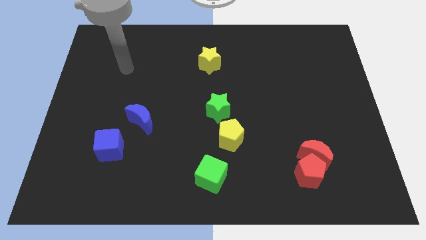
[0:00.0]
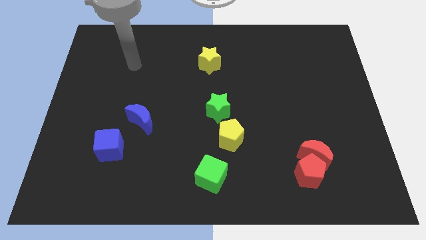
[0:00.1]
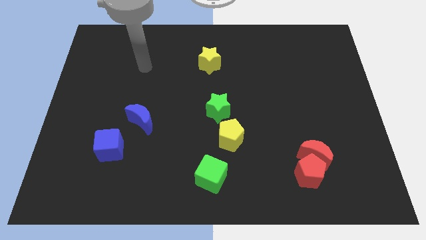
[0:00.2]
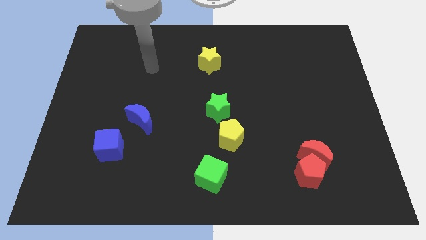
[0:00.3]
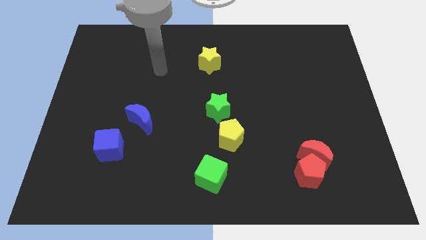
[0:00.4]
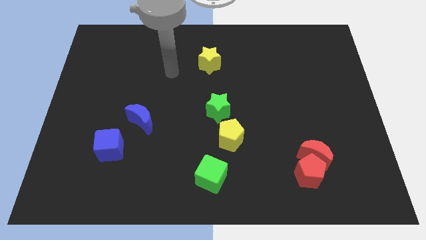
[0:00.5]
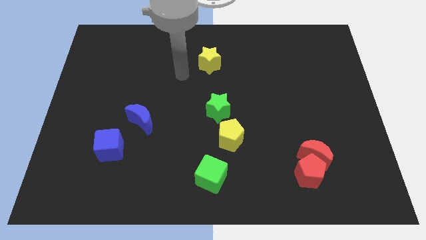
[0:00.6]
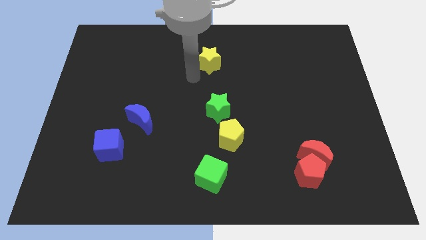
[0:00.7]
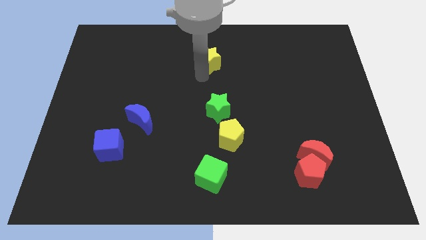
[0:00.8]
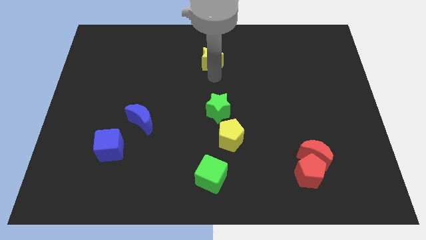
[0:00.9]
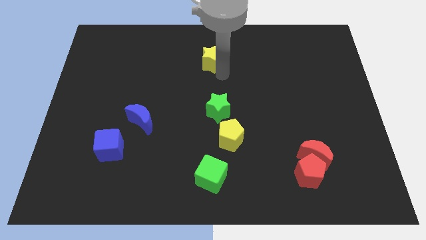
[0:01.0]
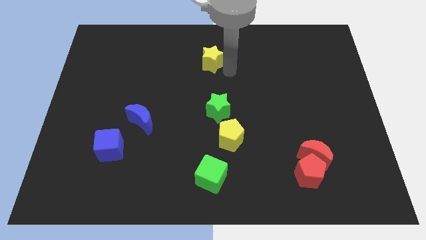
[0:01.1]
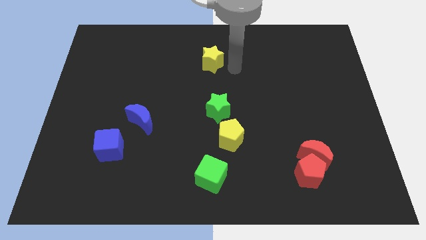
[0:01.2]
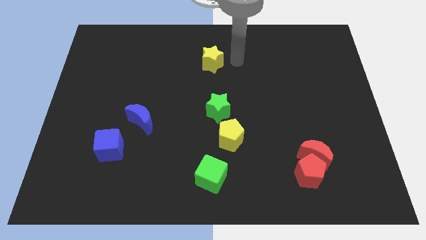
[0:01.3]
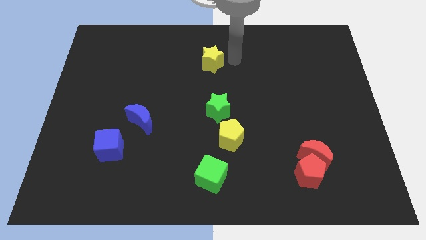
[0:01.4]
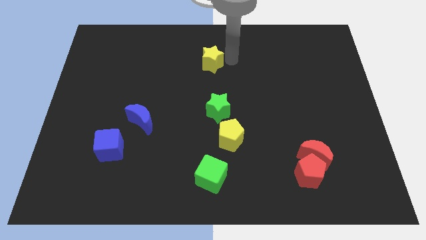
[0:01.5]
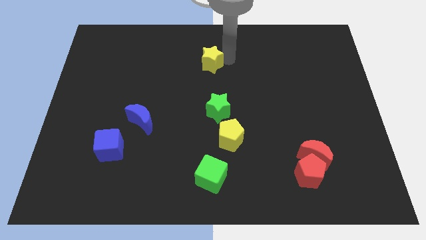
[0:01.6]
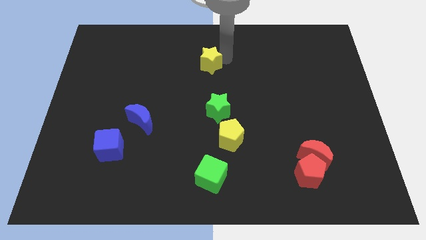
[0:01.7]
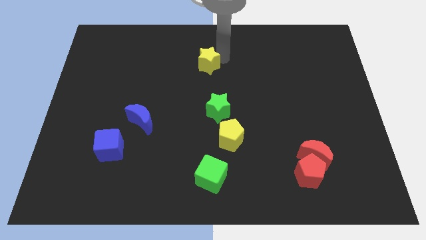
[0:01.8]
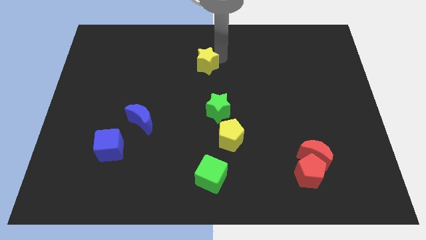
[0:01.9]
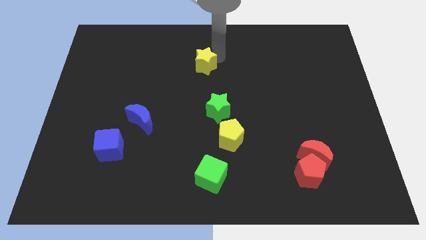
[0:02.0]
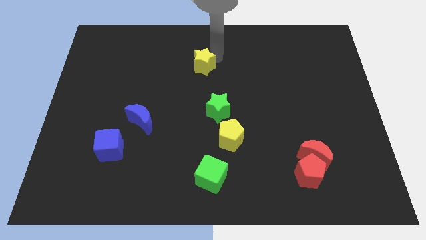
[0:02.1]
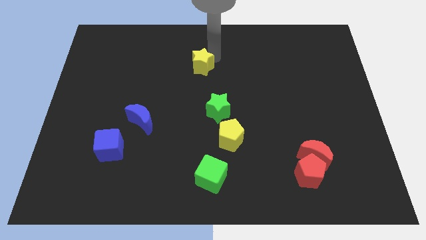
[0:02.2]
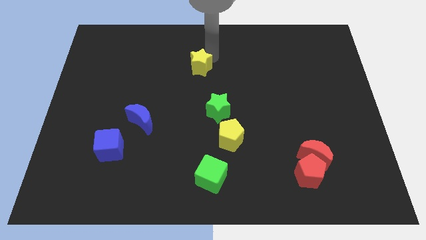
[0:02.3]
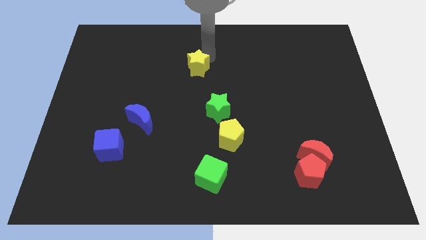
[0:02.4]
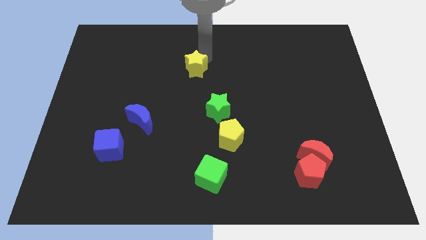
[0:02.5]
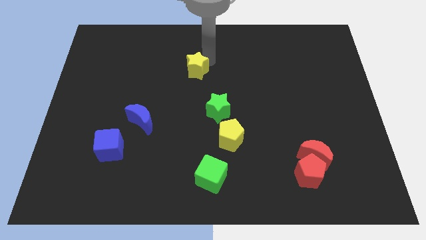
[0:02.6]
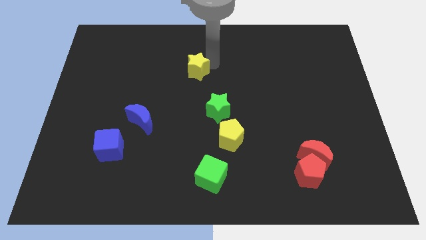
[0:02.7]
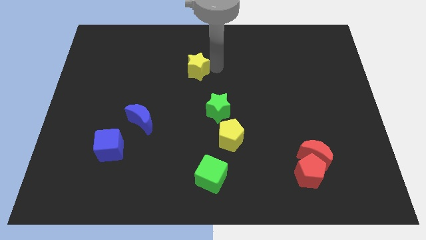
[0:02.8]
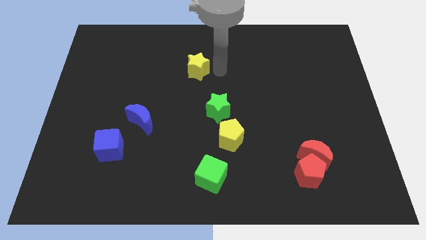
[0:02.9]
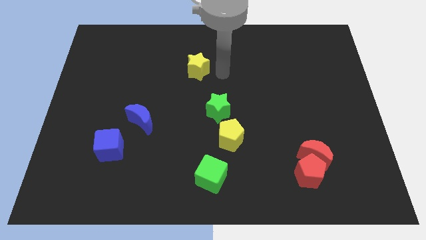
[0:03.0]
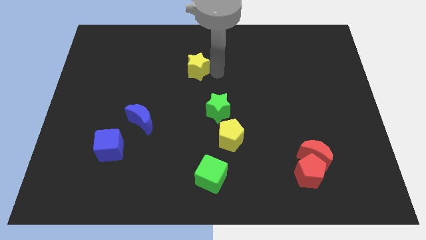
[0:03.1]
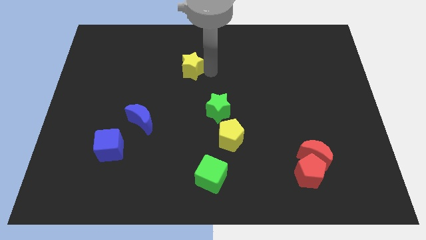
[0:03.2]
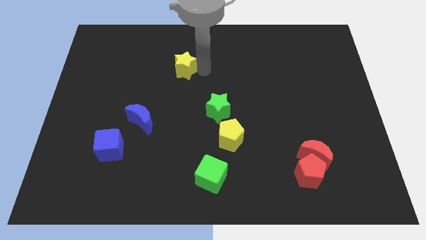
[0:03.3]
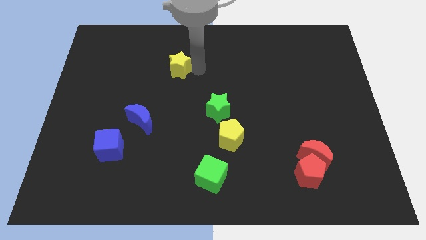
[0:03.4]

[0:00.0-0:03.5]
slightly slide the yellow star left

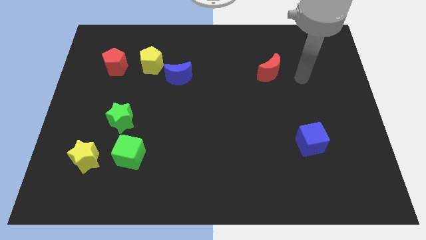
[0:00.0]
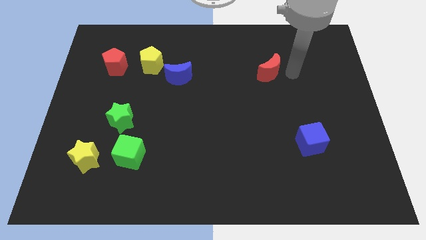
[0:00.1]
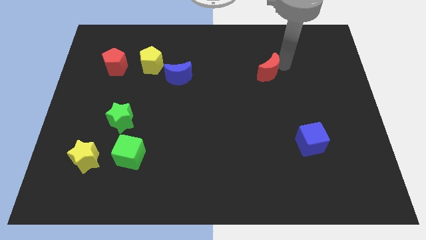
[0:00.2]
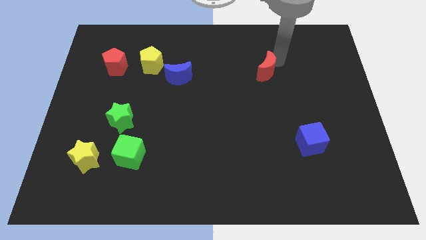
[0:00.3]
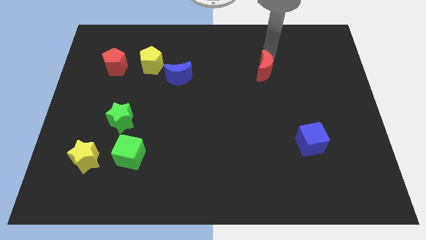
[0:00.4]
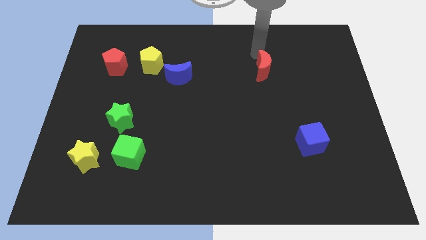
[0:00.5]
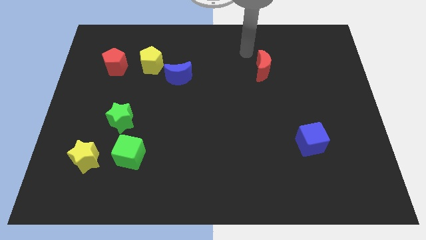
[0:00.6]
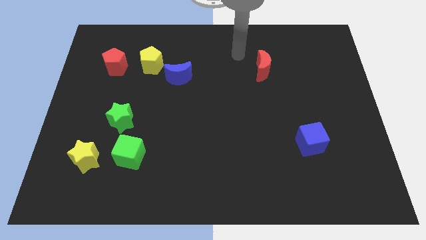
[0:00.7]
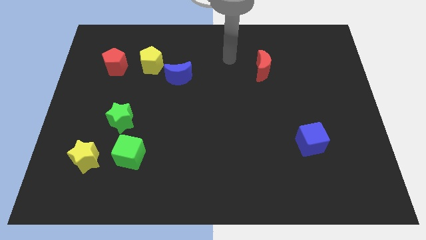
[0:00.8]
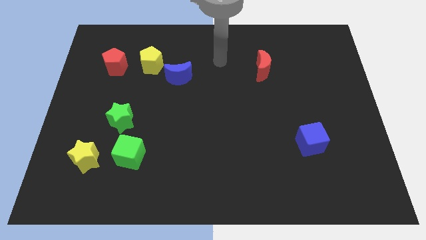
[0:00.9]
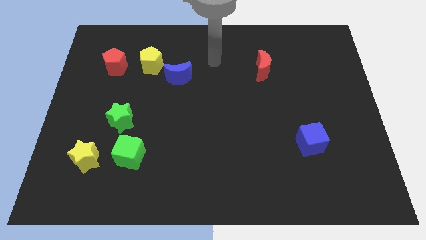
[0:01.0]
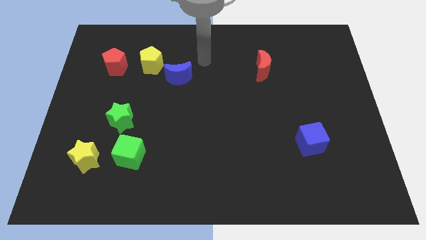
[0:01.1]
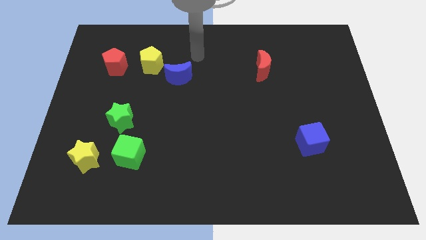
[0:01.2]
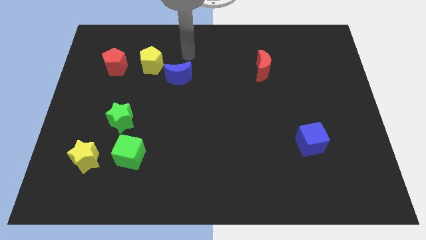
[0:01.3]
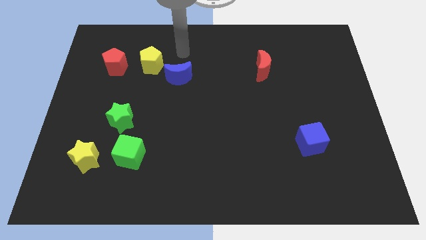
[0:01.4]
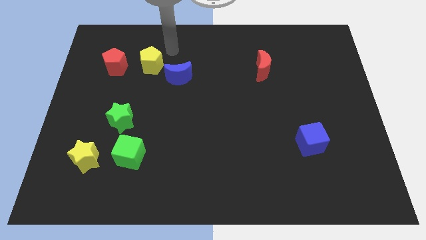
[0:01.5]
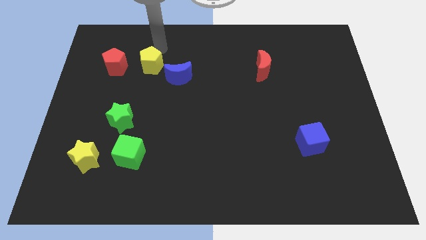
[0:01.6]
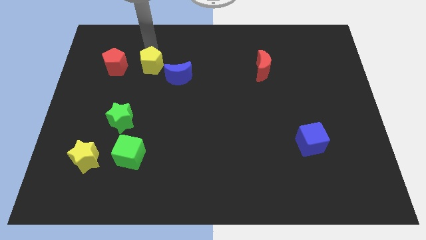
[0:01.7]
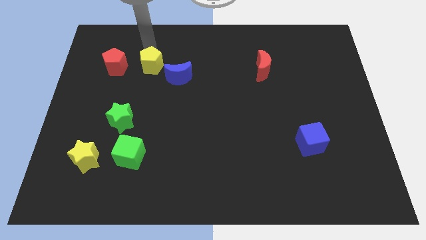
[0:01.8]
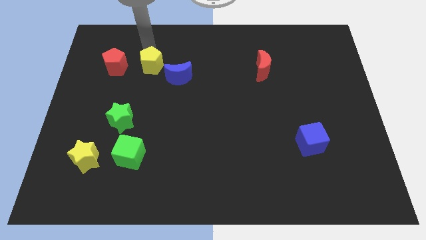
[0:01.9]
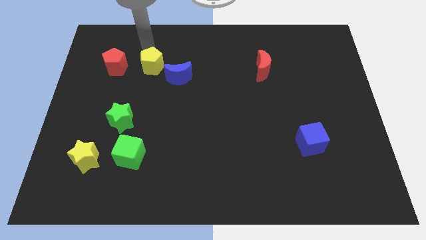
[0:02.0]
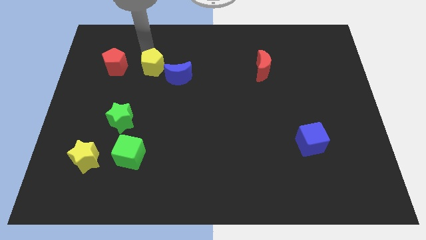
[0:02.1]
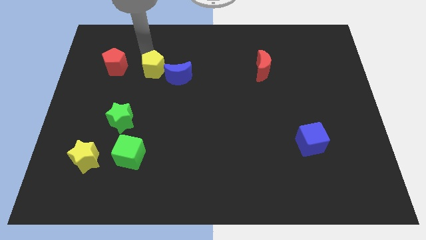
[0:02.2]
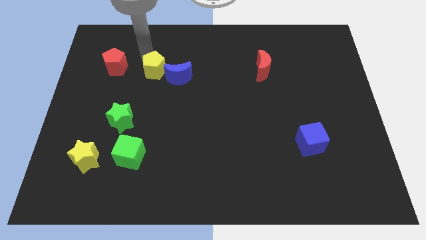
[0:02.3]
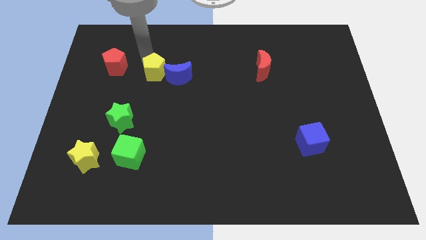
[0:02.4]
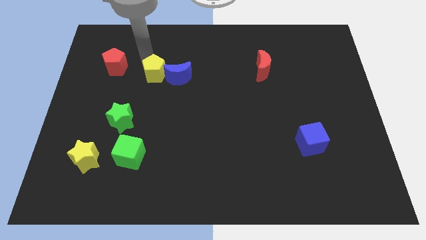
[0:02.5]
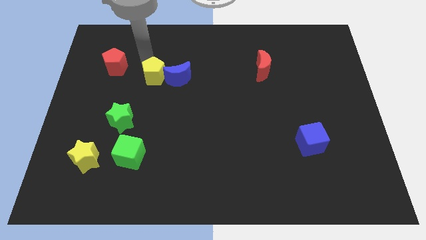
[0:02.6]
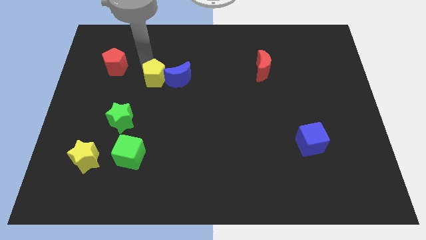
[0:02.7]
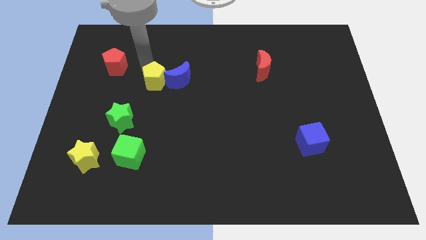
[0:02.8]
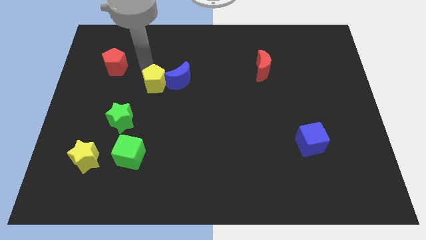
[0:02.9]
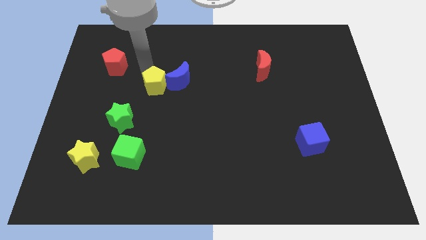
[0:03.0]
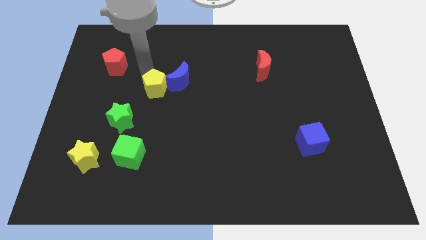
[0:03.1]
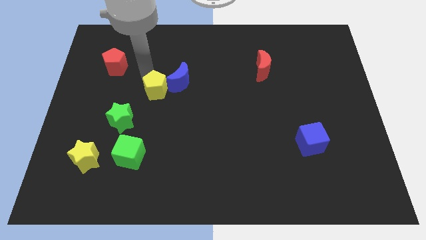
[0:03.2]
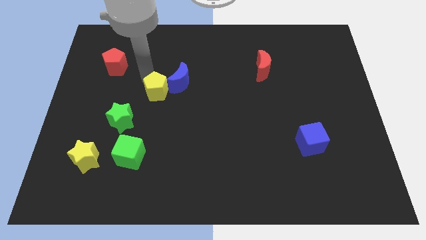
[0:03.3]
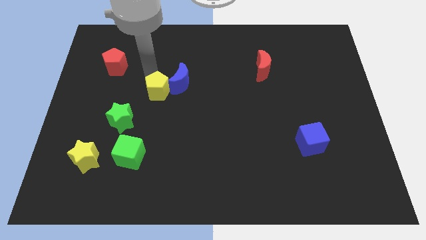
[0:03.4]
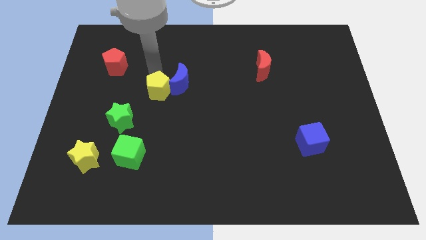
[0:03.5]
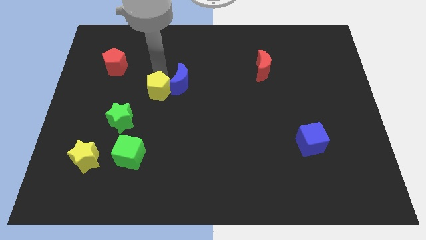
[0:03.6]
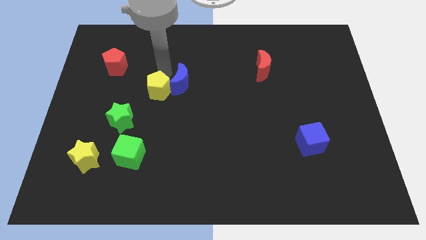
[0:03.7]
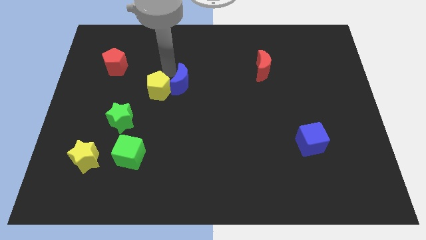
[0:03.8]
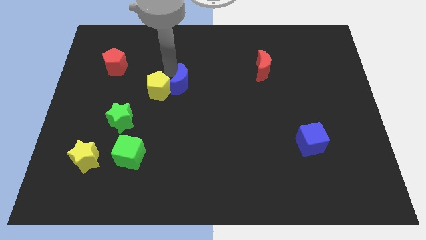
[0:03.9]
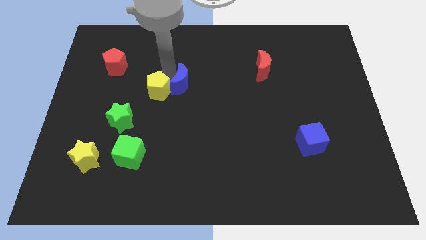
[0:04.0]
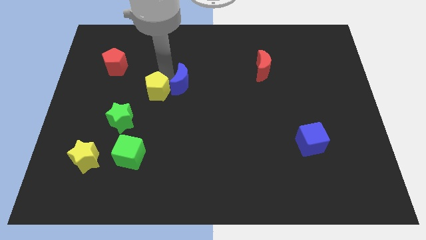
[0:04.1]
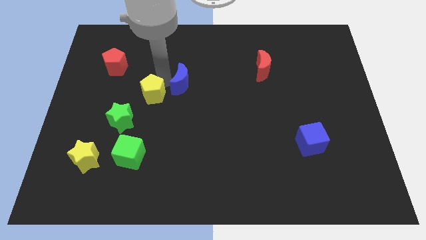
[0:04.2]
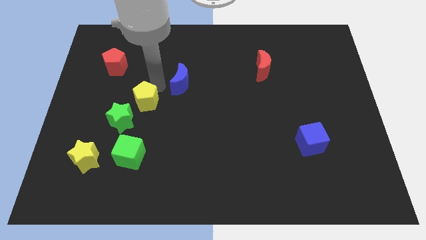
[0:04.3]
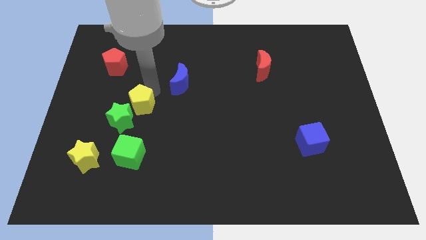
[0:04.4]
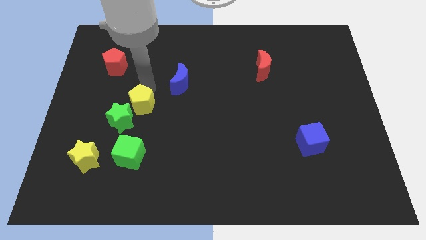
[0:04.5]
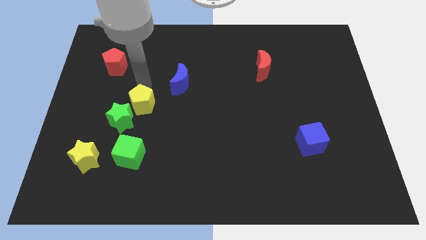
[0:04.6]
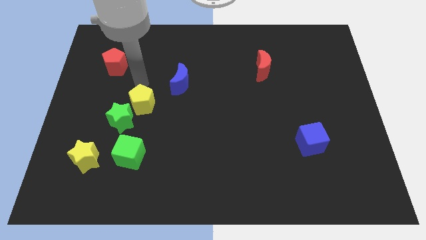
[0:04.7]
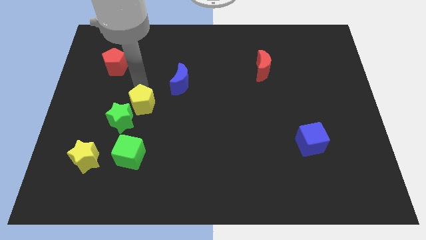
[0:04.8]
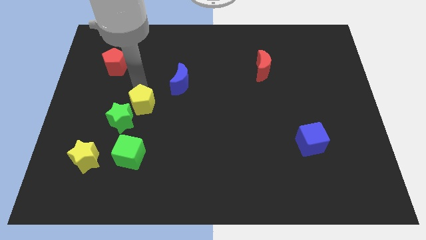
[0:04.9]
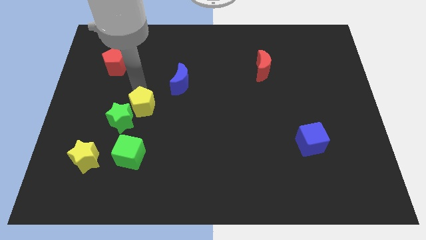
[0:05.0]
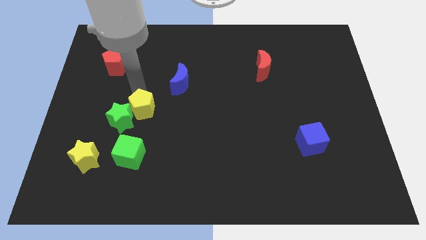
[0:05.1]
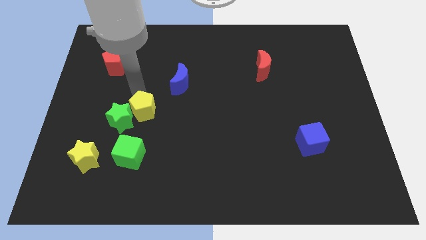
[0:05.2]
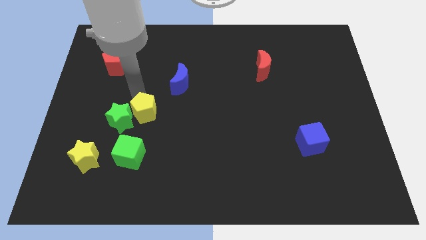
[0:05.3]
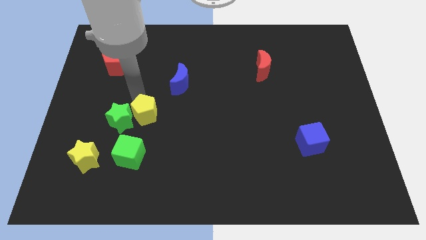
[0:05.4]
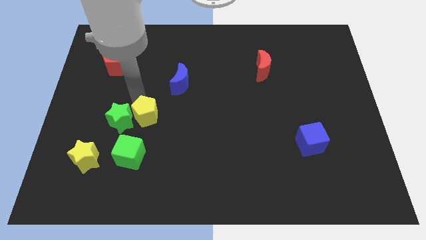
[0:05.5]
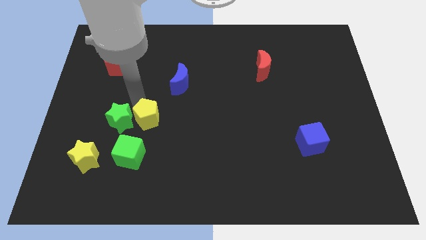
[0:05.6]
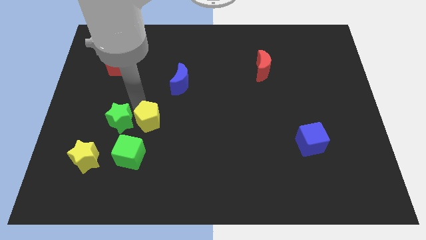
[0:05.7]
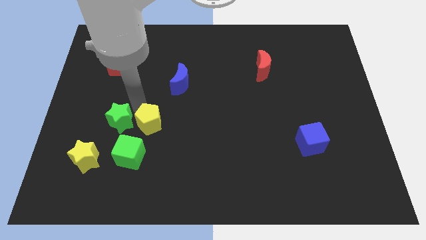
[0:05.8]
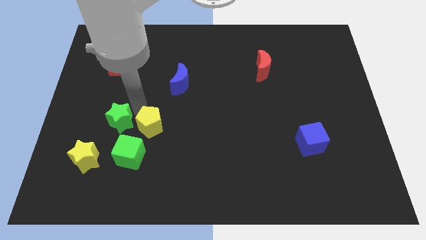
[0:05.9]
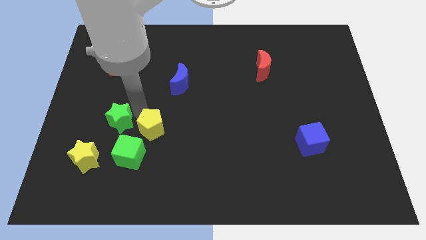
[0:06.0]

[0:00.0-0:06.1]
slide the yellow pentagon down
